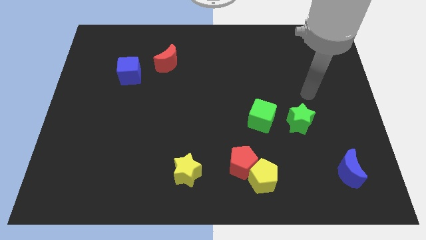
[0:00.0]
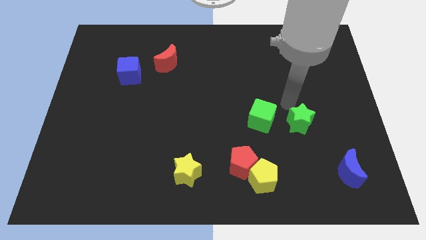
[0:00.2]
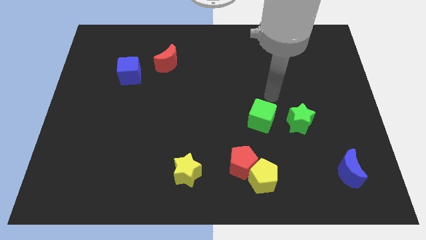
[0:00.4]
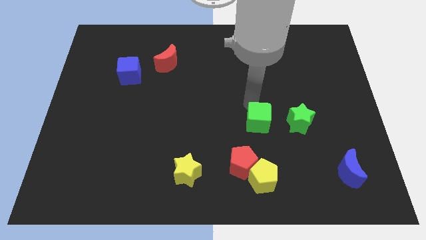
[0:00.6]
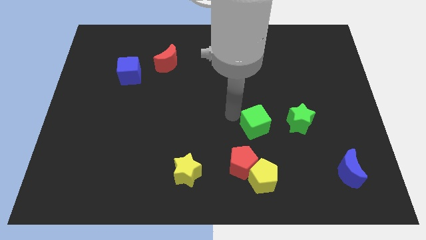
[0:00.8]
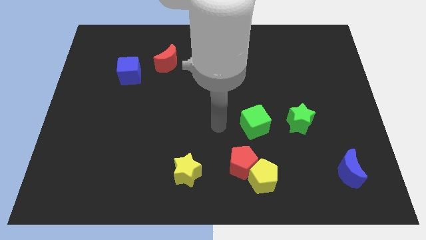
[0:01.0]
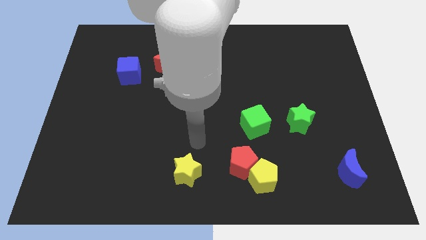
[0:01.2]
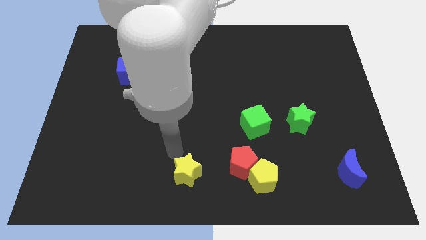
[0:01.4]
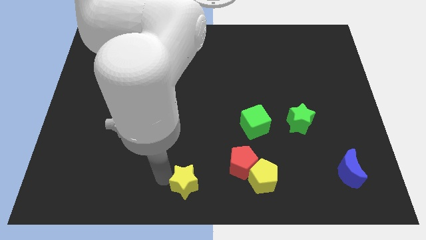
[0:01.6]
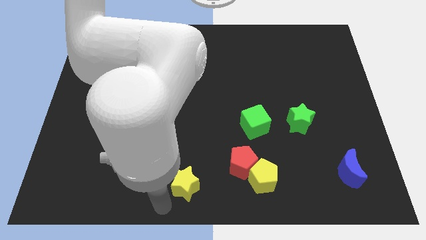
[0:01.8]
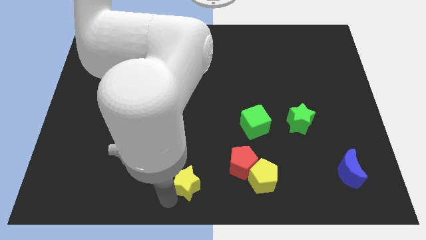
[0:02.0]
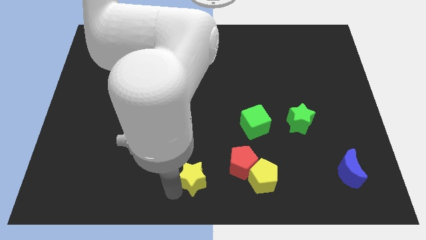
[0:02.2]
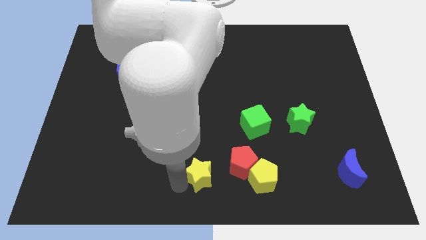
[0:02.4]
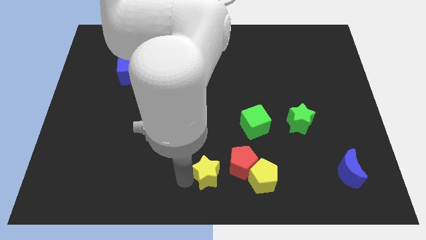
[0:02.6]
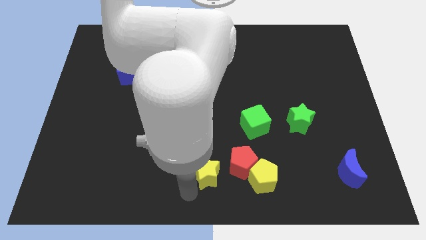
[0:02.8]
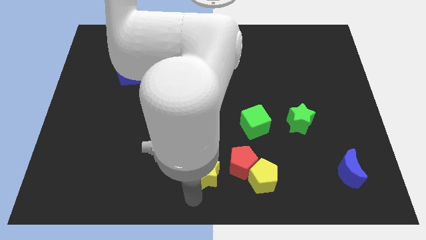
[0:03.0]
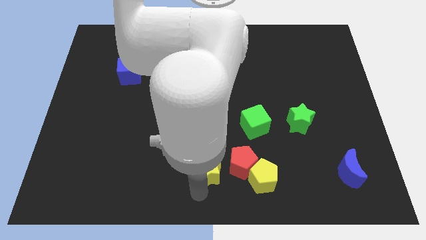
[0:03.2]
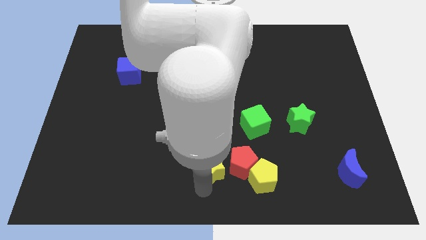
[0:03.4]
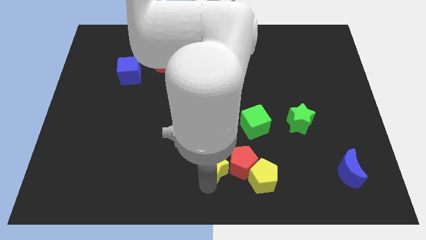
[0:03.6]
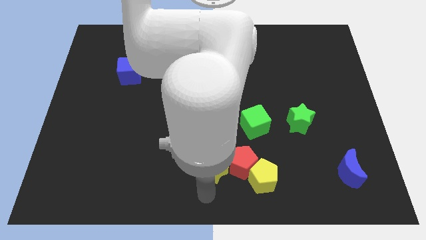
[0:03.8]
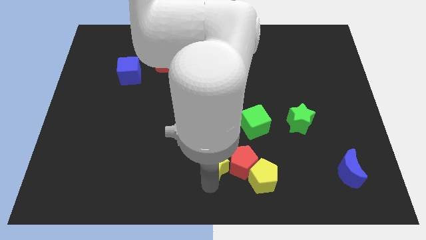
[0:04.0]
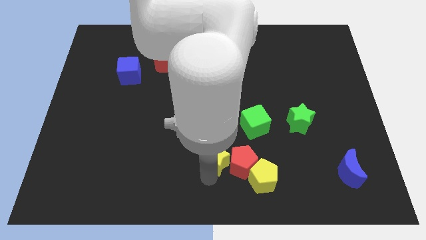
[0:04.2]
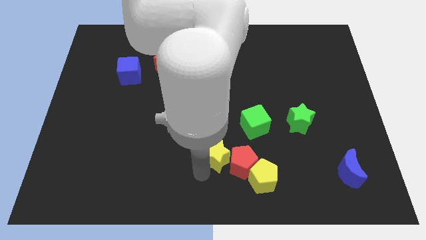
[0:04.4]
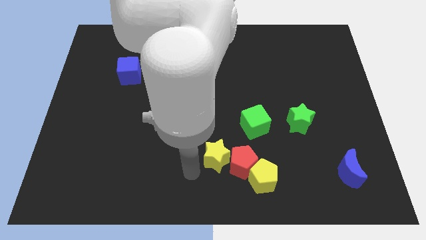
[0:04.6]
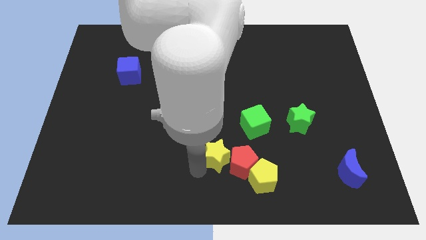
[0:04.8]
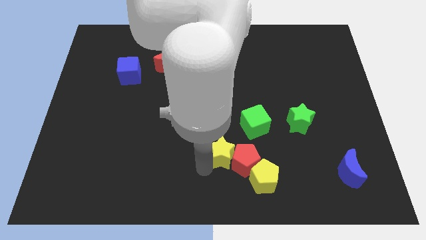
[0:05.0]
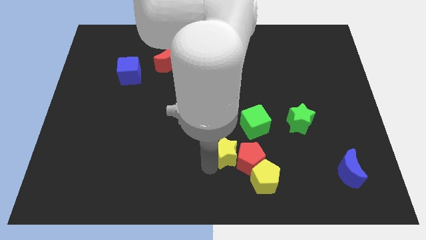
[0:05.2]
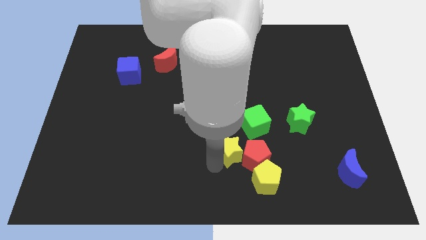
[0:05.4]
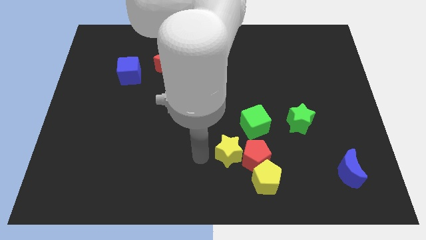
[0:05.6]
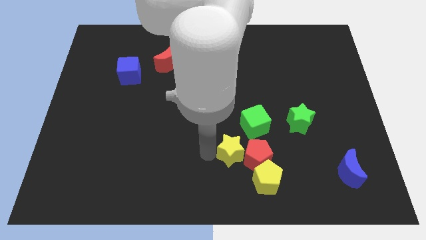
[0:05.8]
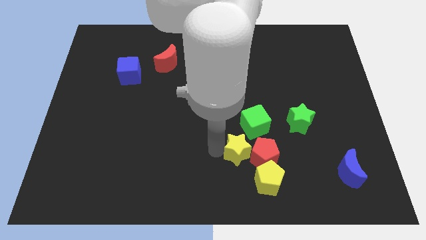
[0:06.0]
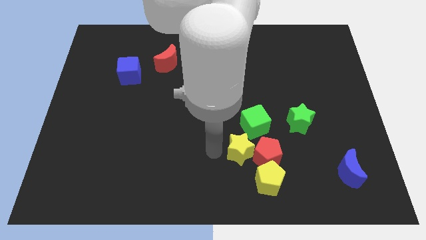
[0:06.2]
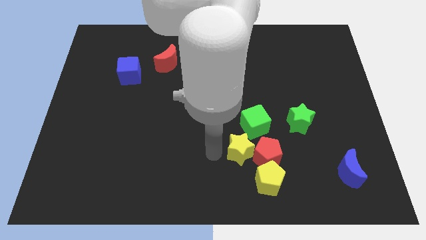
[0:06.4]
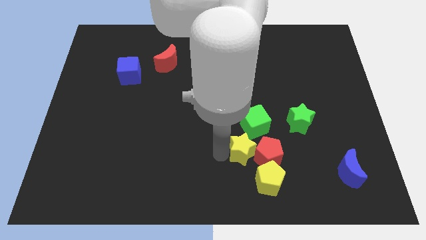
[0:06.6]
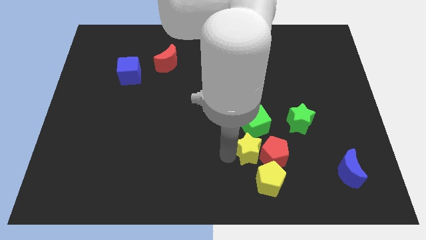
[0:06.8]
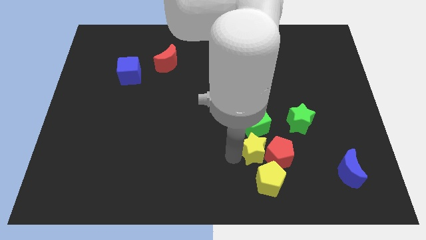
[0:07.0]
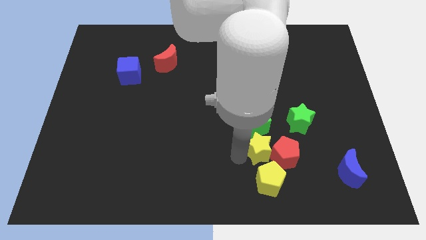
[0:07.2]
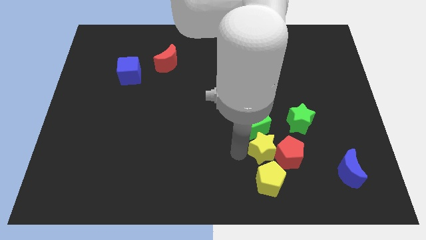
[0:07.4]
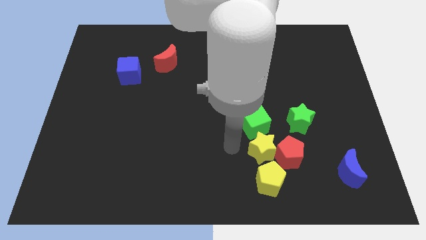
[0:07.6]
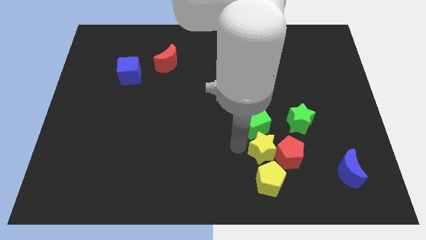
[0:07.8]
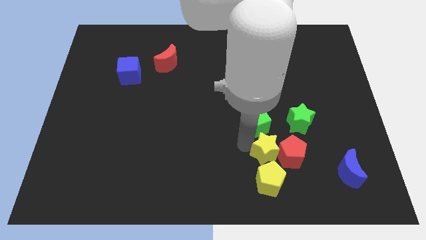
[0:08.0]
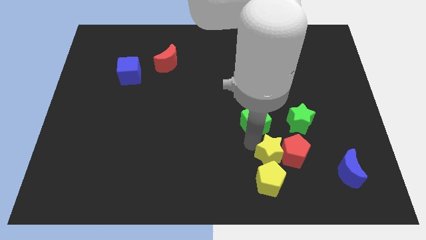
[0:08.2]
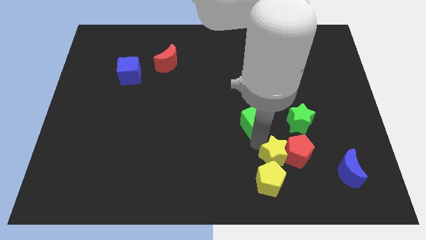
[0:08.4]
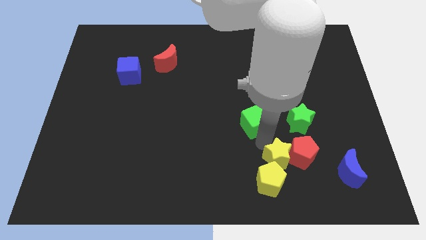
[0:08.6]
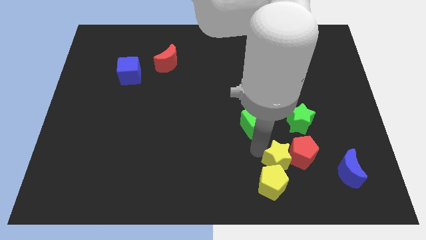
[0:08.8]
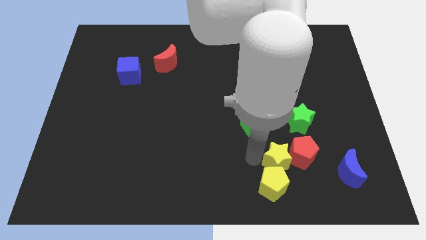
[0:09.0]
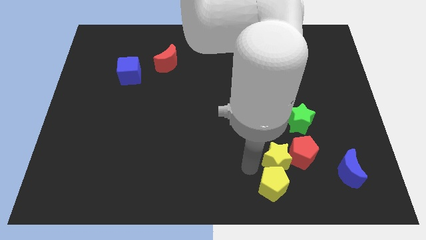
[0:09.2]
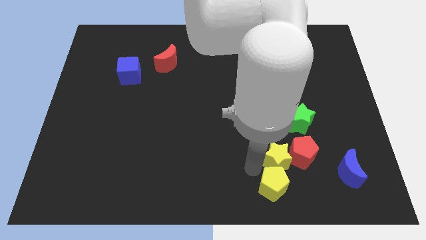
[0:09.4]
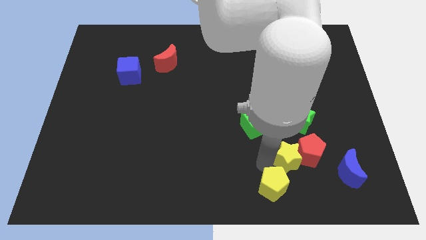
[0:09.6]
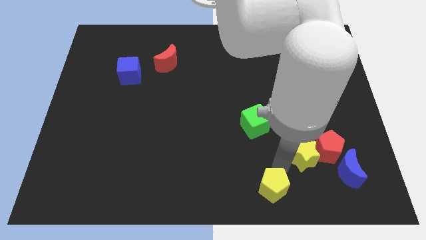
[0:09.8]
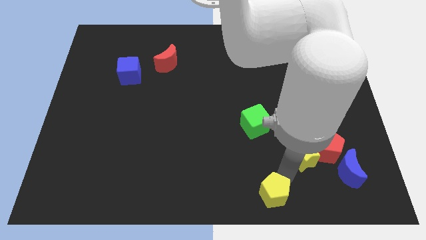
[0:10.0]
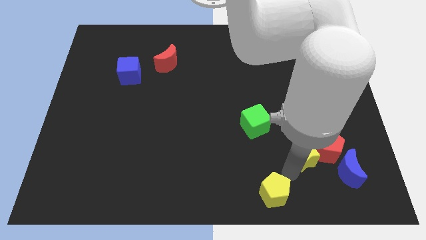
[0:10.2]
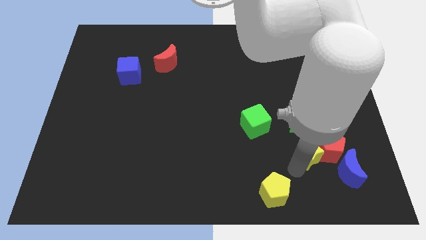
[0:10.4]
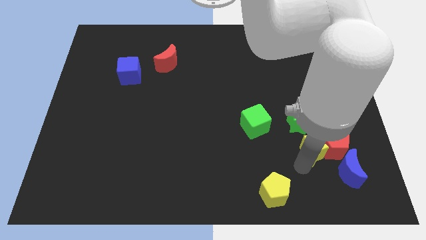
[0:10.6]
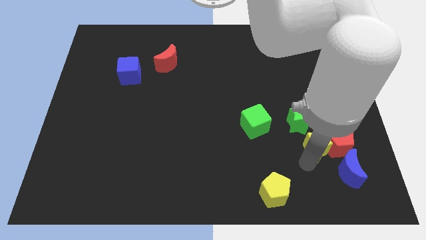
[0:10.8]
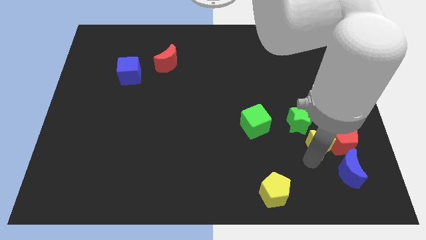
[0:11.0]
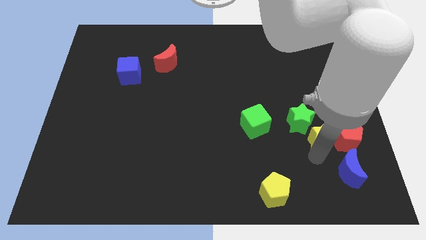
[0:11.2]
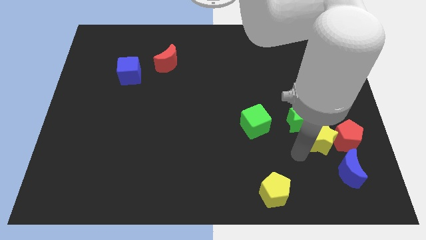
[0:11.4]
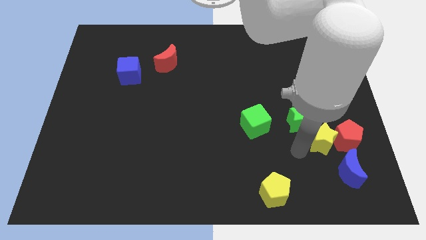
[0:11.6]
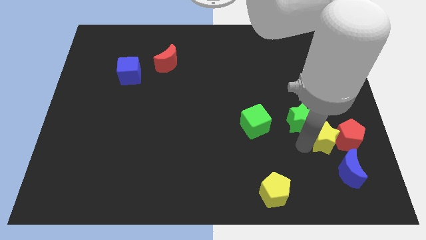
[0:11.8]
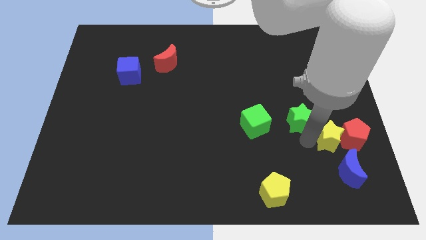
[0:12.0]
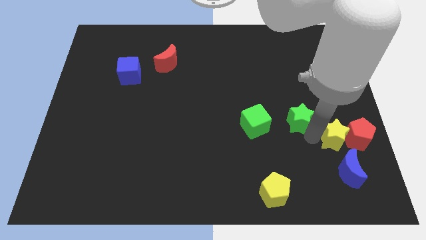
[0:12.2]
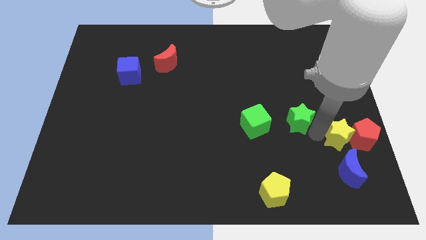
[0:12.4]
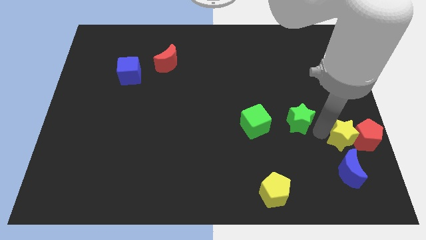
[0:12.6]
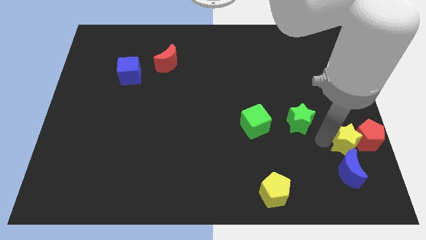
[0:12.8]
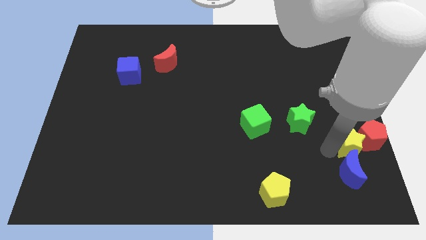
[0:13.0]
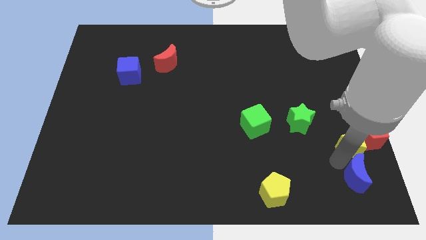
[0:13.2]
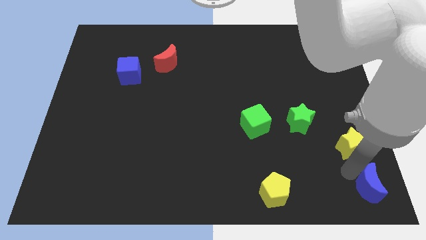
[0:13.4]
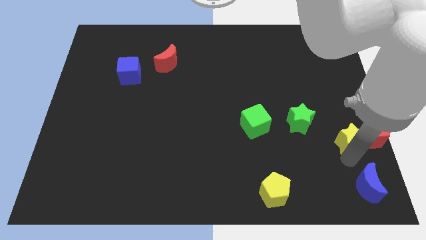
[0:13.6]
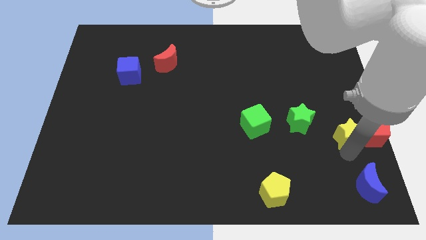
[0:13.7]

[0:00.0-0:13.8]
move the yellow star to the right side
